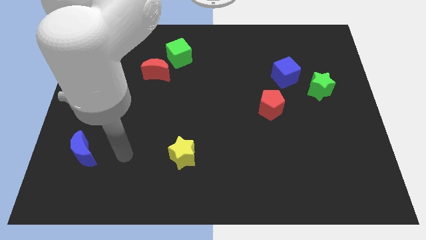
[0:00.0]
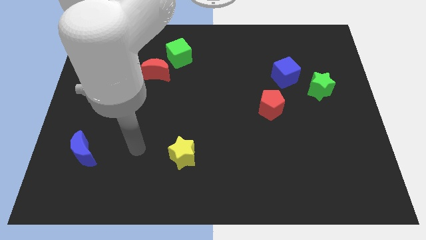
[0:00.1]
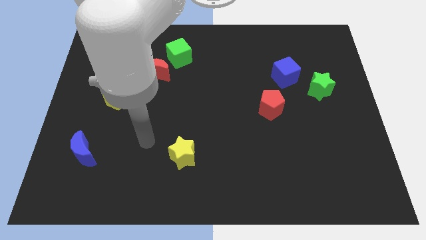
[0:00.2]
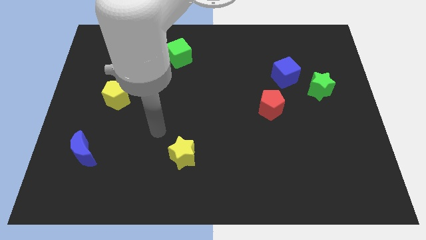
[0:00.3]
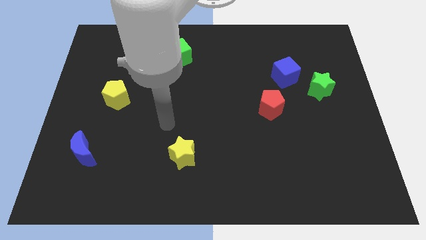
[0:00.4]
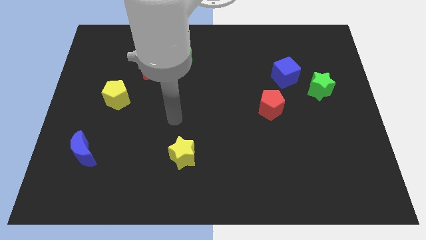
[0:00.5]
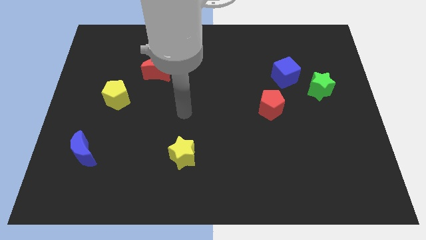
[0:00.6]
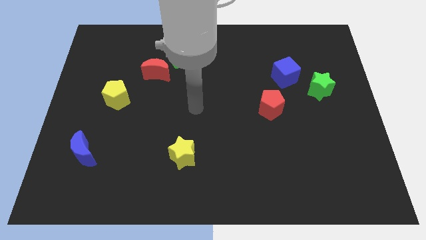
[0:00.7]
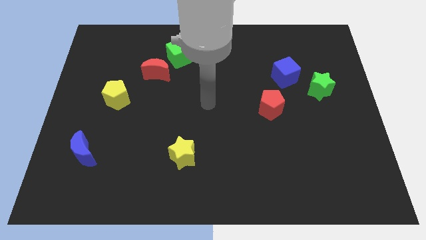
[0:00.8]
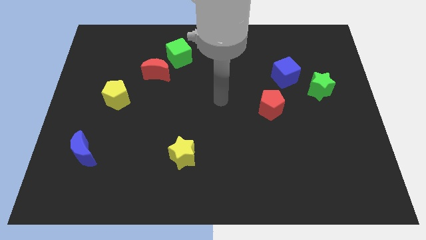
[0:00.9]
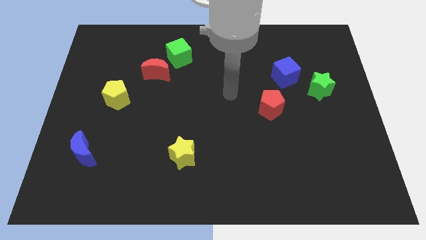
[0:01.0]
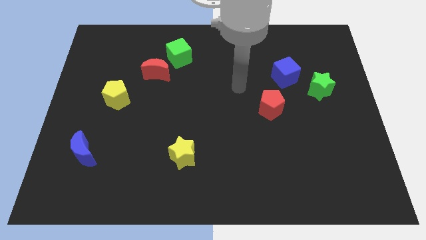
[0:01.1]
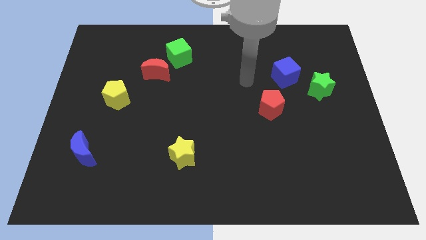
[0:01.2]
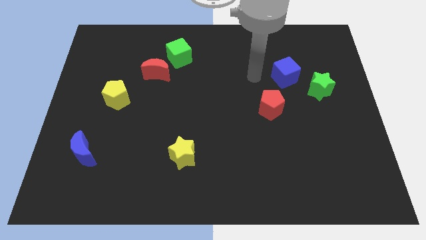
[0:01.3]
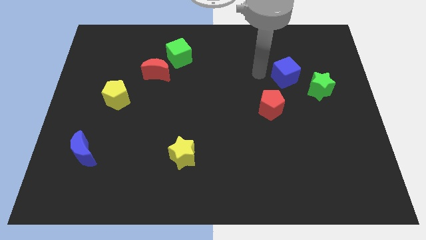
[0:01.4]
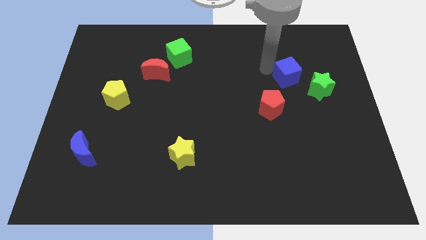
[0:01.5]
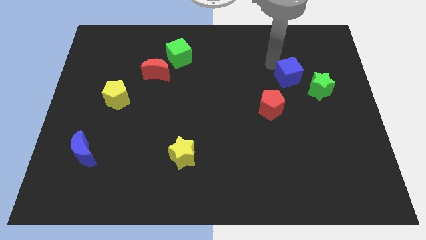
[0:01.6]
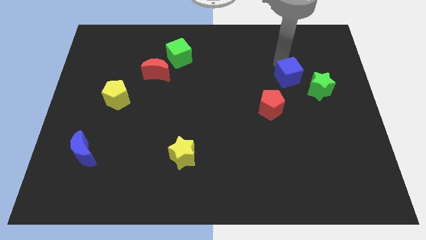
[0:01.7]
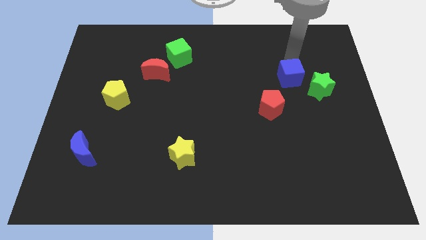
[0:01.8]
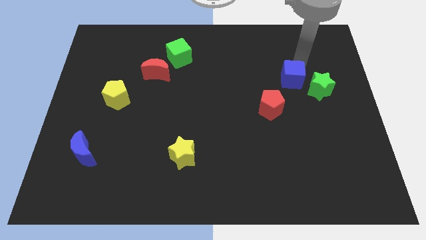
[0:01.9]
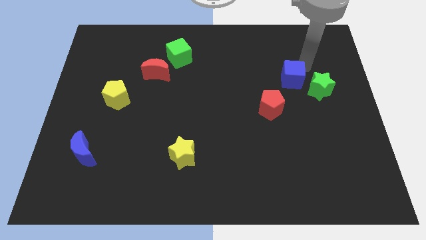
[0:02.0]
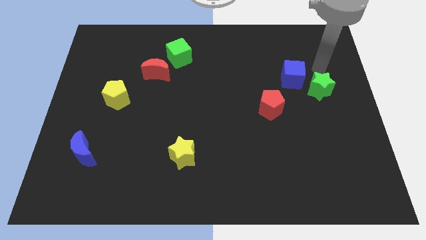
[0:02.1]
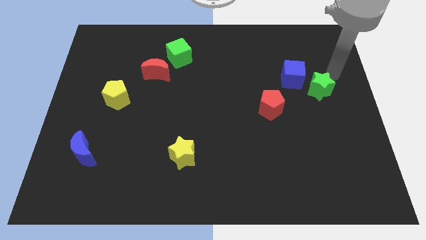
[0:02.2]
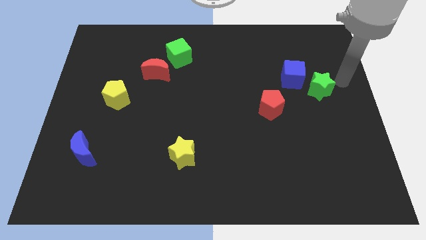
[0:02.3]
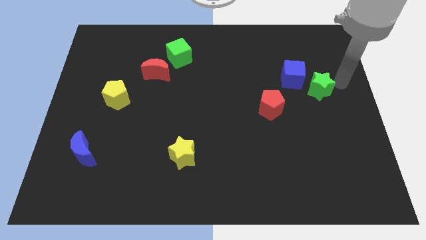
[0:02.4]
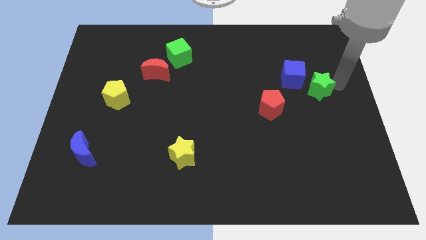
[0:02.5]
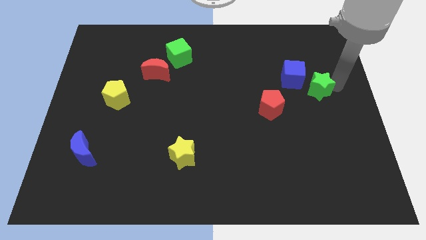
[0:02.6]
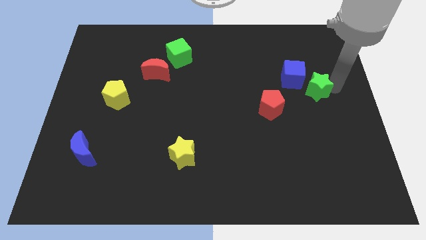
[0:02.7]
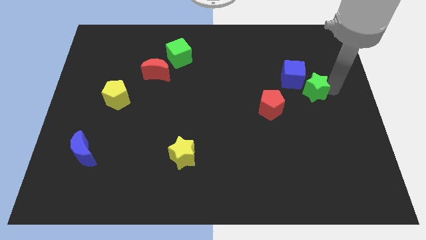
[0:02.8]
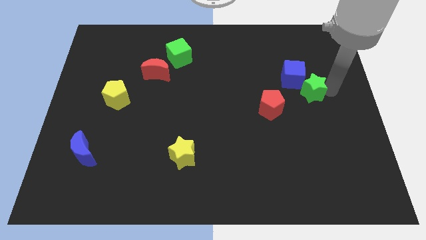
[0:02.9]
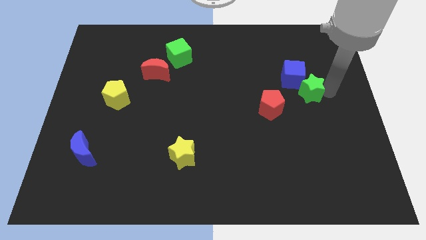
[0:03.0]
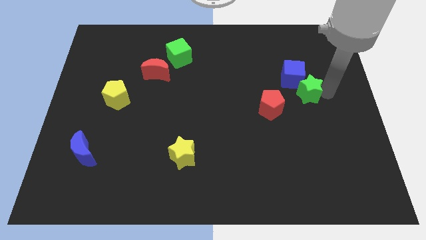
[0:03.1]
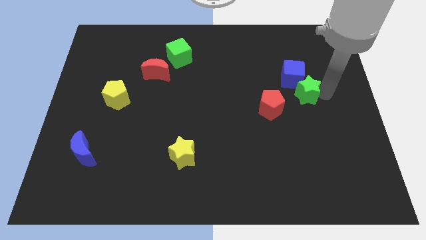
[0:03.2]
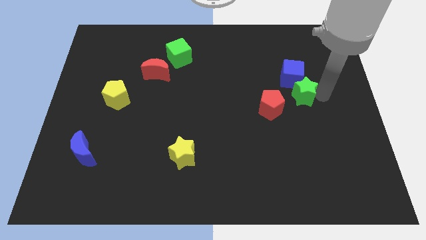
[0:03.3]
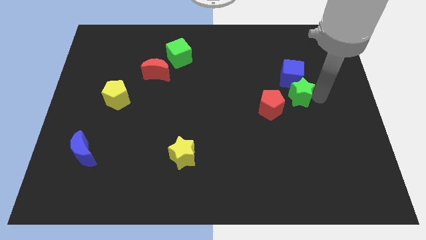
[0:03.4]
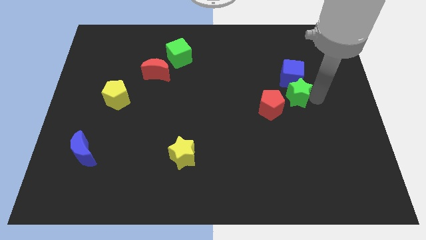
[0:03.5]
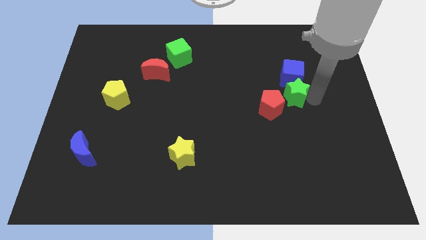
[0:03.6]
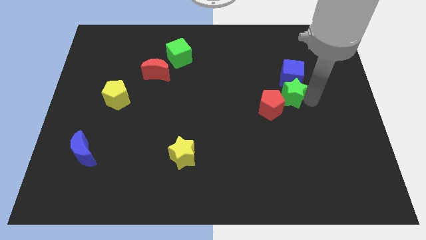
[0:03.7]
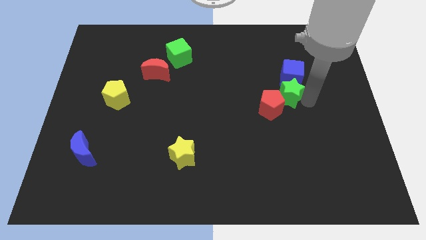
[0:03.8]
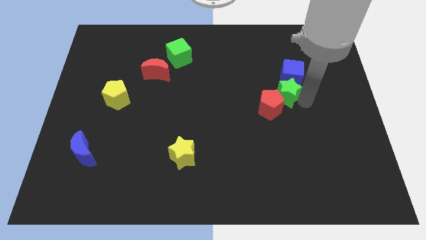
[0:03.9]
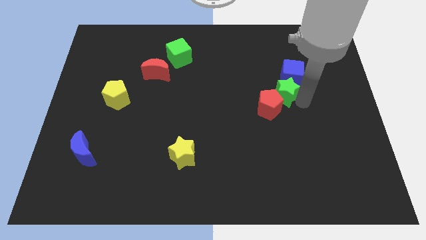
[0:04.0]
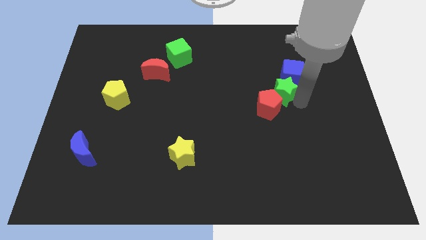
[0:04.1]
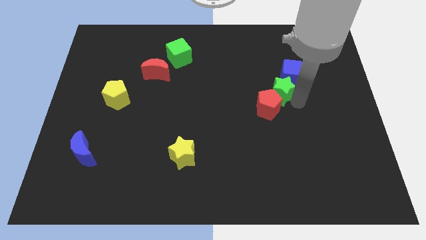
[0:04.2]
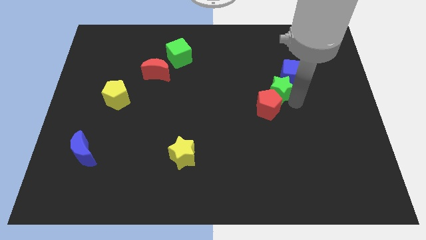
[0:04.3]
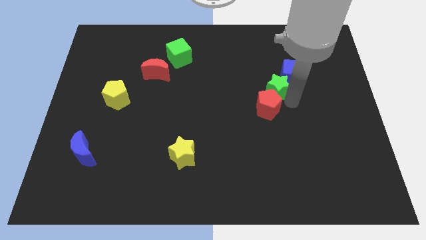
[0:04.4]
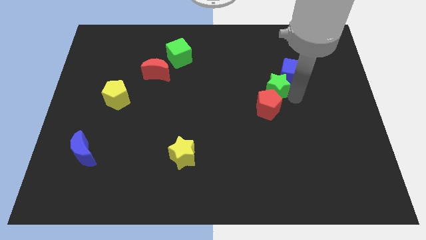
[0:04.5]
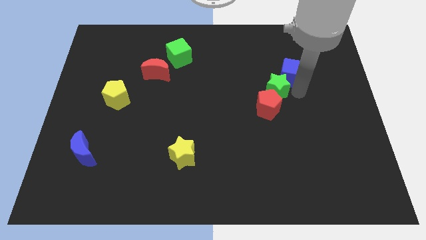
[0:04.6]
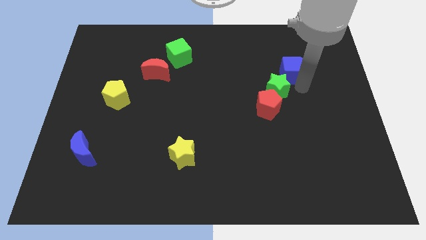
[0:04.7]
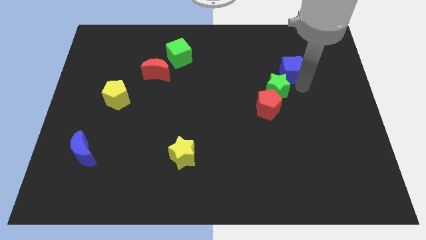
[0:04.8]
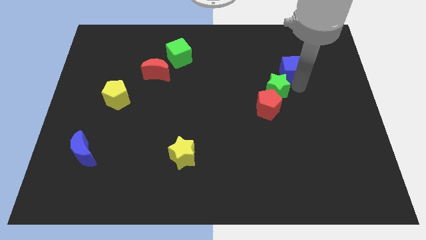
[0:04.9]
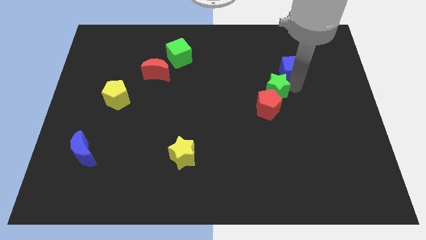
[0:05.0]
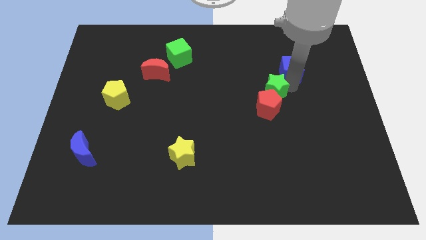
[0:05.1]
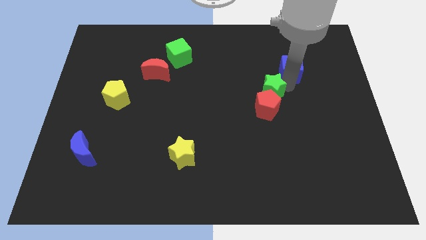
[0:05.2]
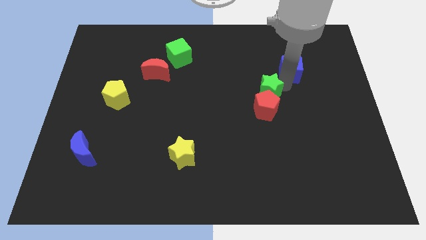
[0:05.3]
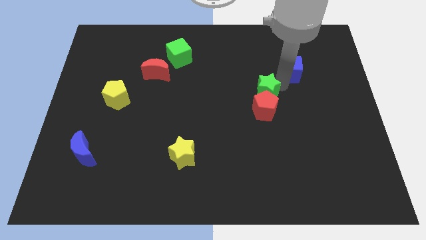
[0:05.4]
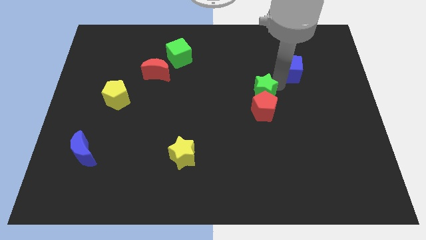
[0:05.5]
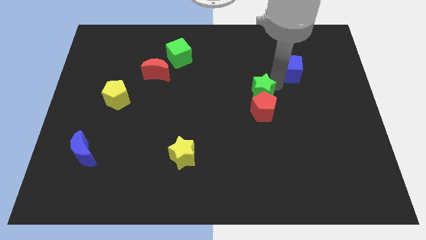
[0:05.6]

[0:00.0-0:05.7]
put the green star to the center of the board

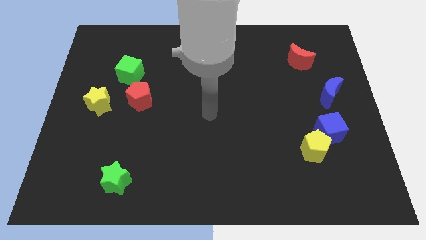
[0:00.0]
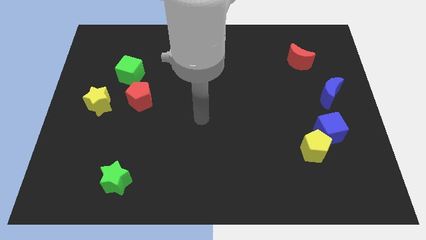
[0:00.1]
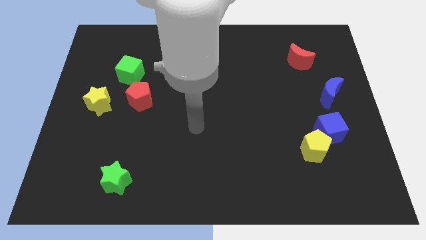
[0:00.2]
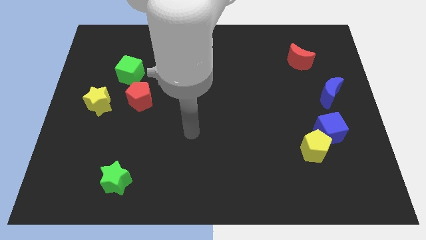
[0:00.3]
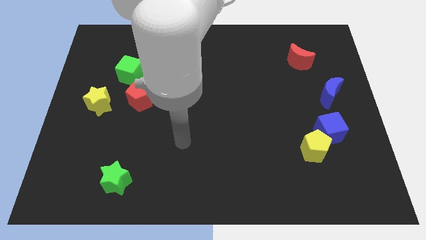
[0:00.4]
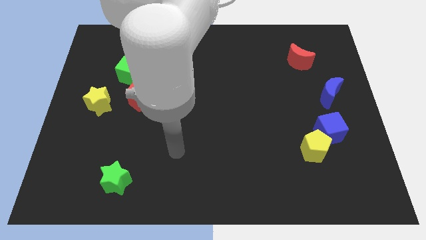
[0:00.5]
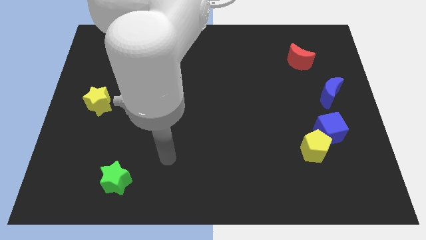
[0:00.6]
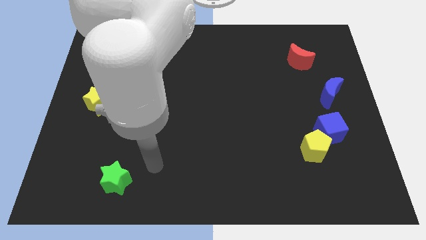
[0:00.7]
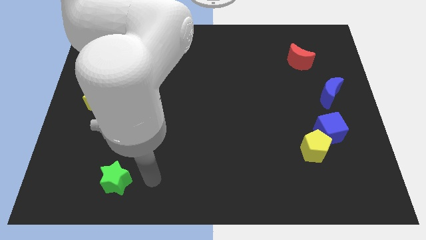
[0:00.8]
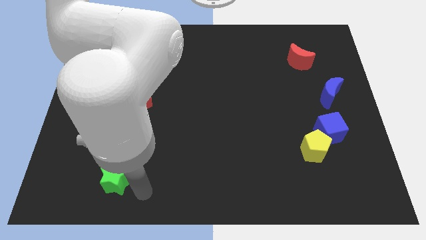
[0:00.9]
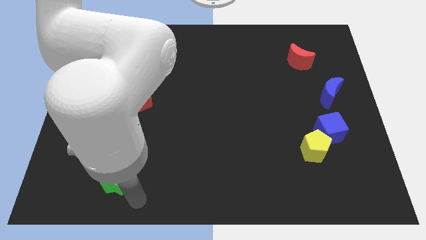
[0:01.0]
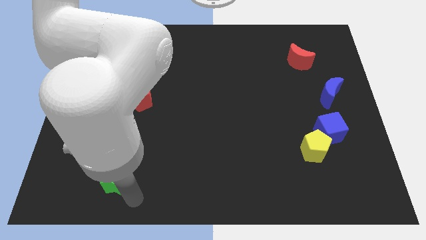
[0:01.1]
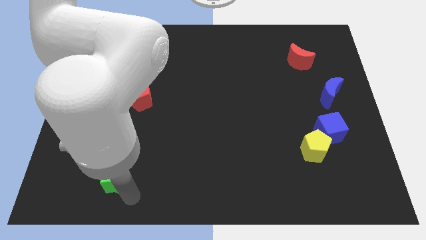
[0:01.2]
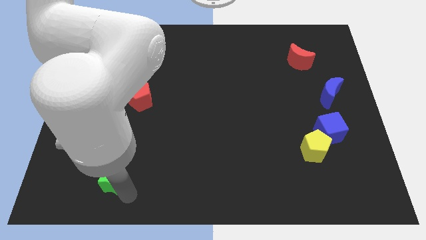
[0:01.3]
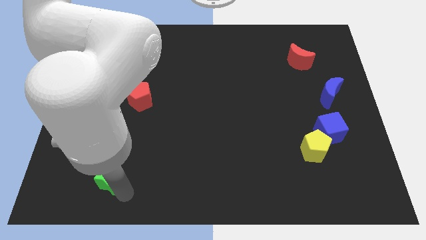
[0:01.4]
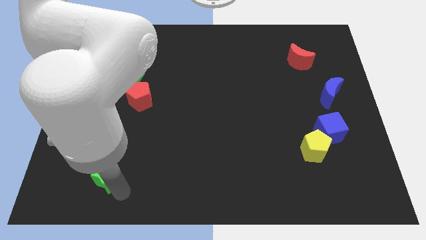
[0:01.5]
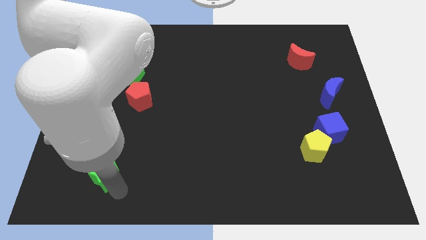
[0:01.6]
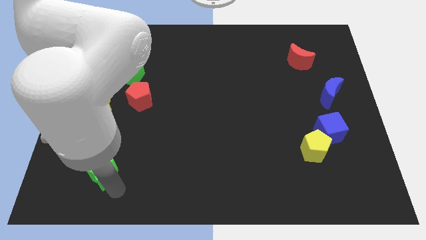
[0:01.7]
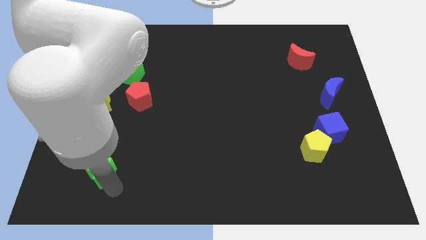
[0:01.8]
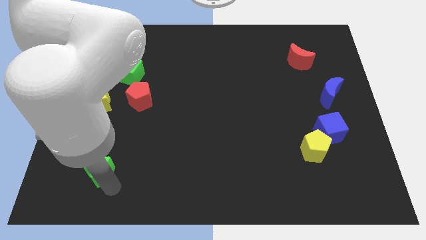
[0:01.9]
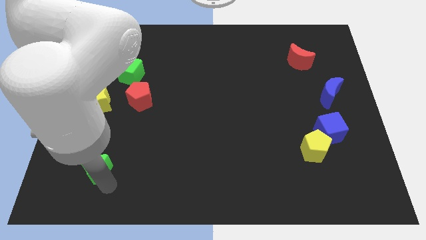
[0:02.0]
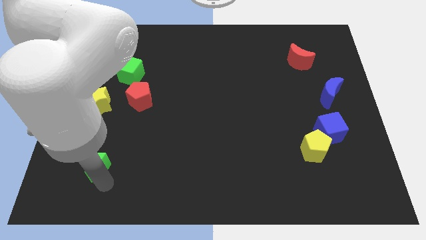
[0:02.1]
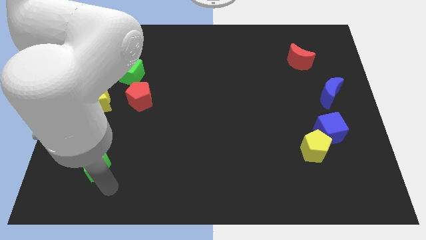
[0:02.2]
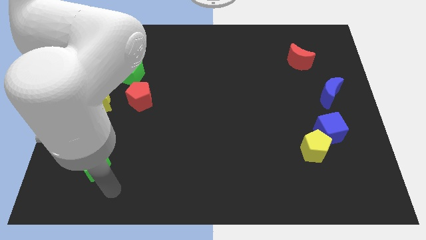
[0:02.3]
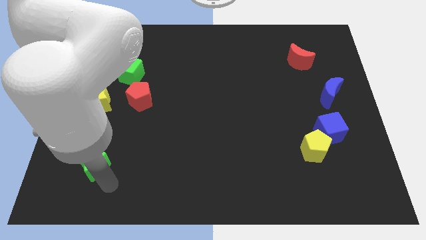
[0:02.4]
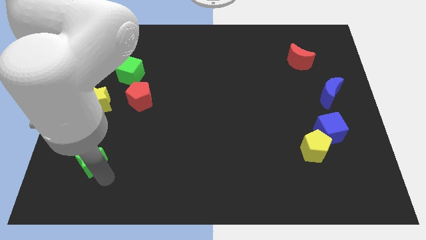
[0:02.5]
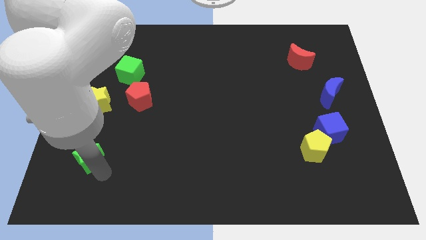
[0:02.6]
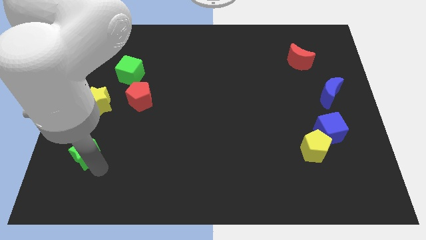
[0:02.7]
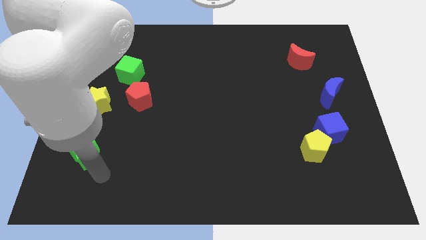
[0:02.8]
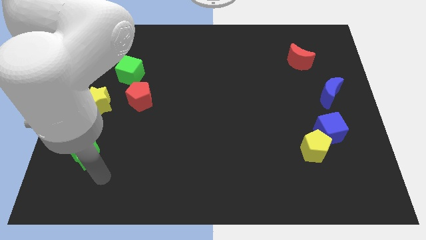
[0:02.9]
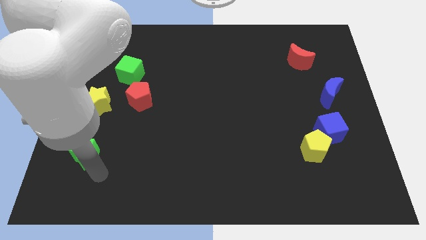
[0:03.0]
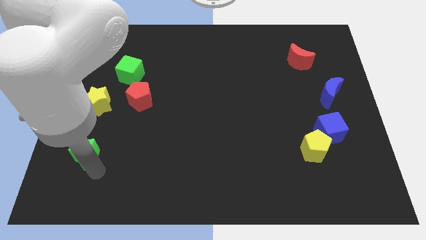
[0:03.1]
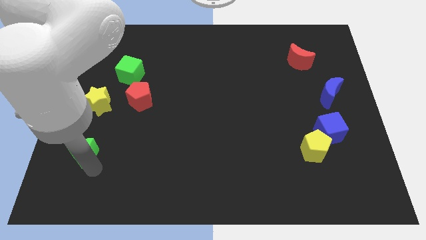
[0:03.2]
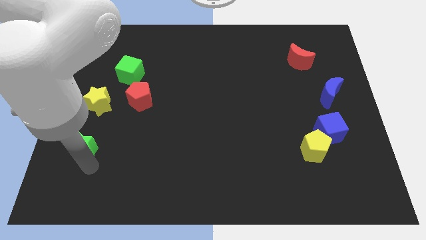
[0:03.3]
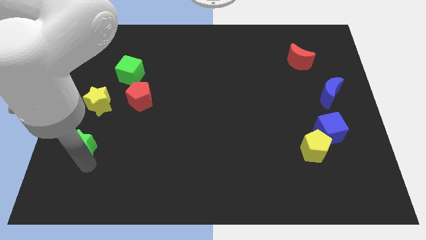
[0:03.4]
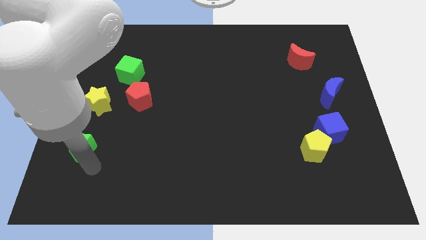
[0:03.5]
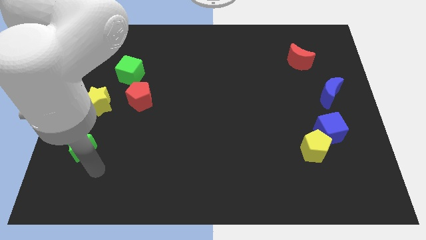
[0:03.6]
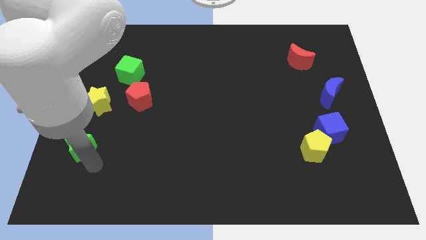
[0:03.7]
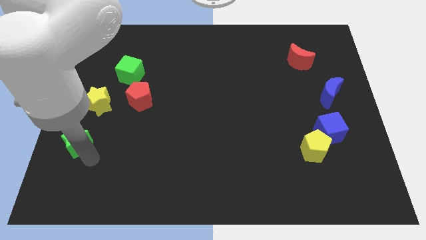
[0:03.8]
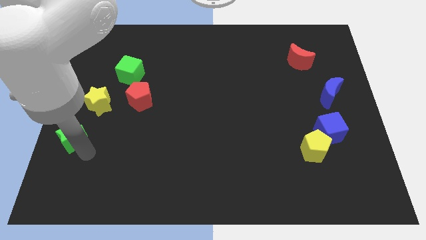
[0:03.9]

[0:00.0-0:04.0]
push the green star to the left side of the board
